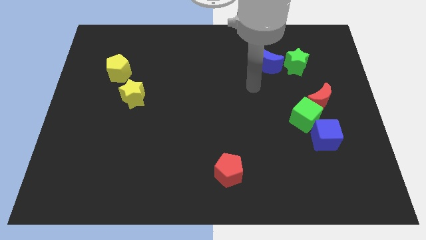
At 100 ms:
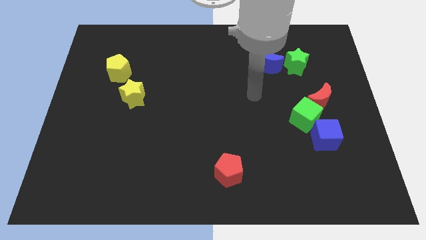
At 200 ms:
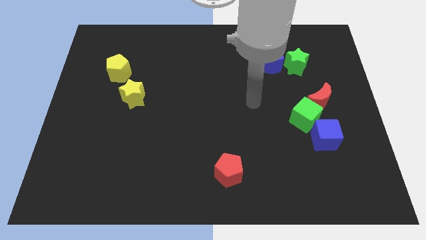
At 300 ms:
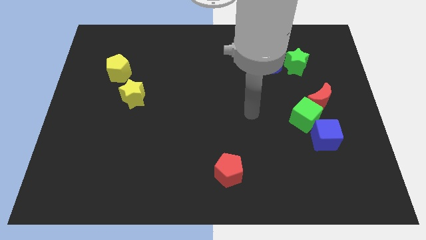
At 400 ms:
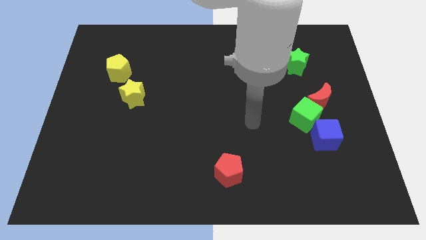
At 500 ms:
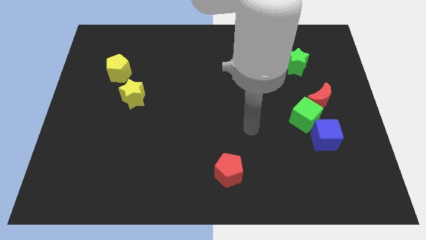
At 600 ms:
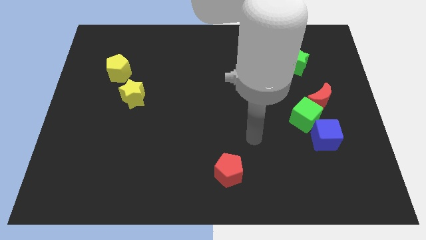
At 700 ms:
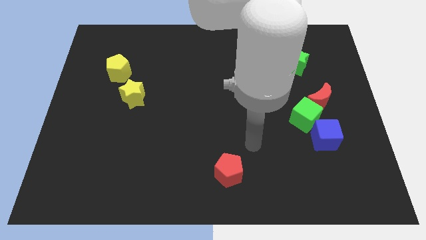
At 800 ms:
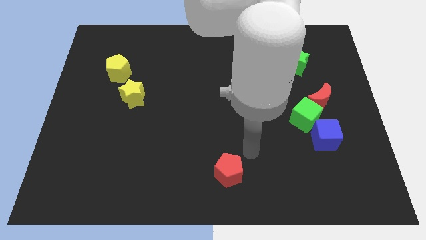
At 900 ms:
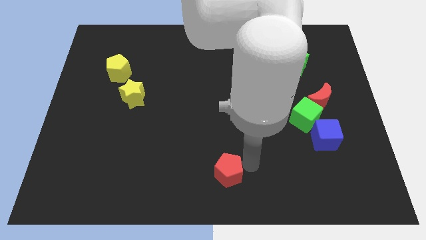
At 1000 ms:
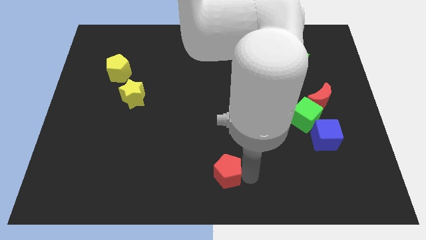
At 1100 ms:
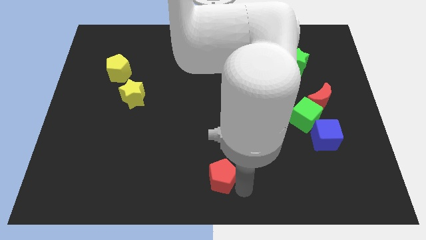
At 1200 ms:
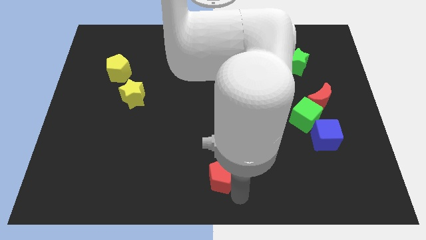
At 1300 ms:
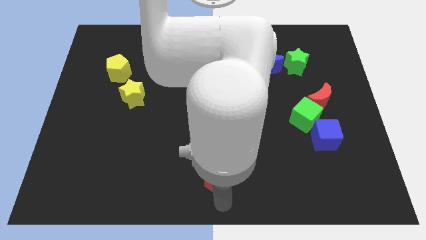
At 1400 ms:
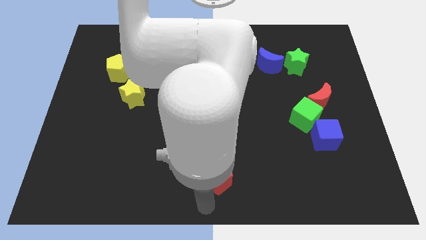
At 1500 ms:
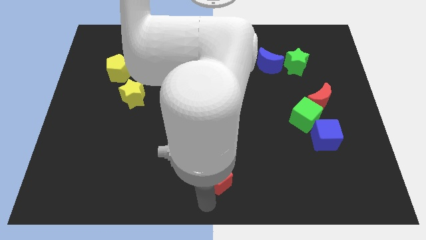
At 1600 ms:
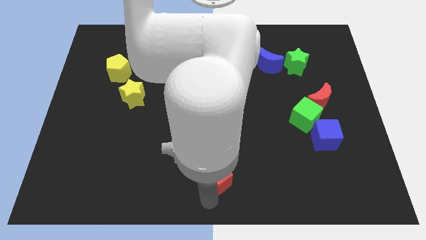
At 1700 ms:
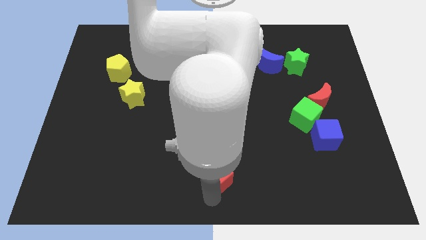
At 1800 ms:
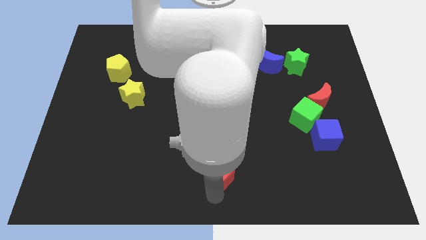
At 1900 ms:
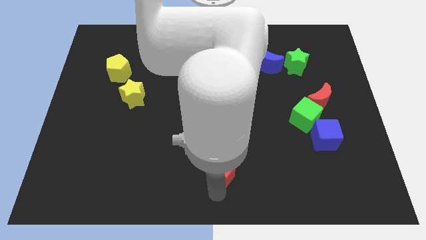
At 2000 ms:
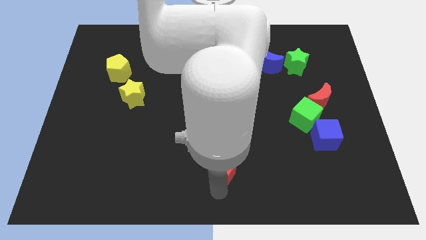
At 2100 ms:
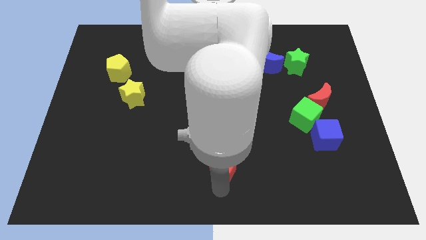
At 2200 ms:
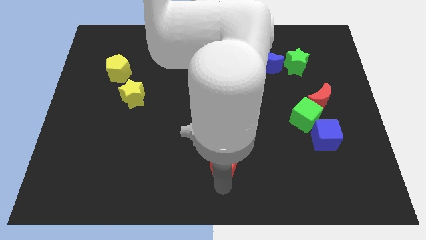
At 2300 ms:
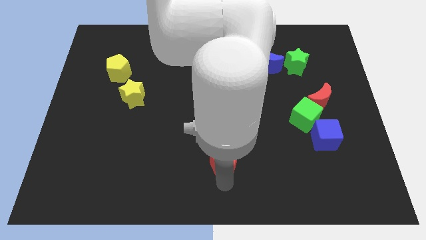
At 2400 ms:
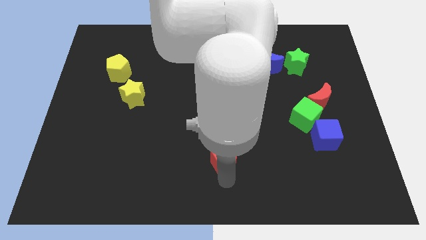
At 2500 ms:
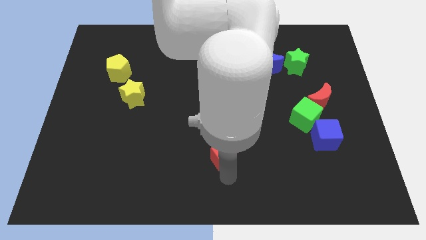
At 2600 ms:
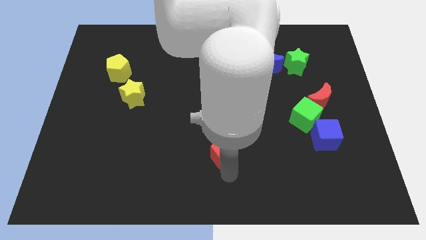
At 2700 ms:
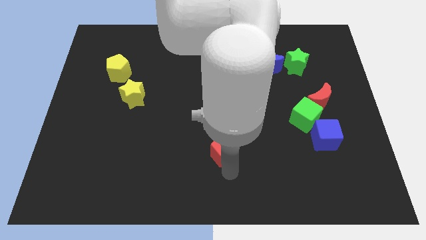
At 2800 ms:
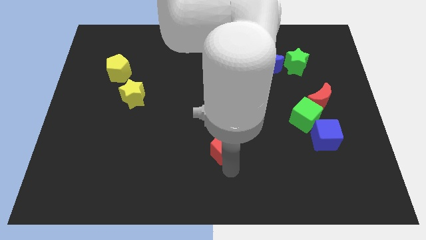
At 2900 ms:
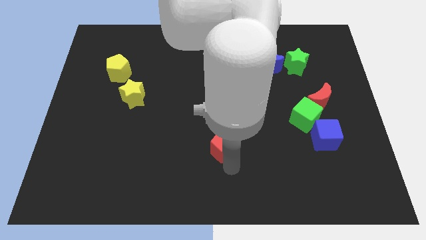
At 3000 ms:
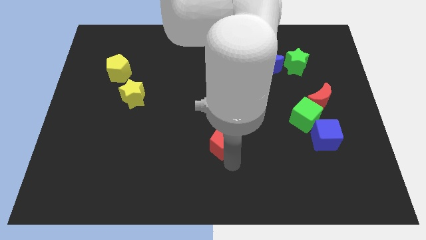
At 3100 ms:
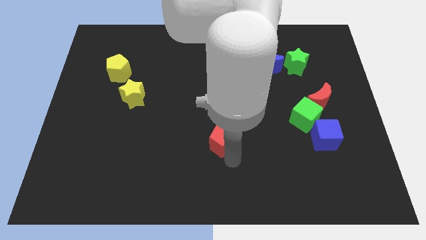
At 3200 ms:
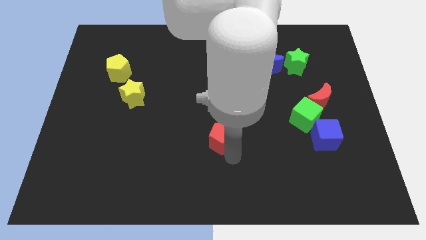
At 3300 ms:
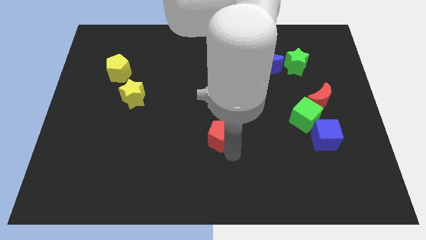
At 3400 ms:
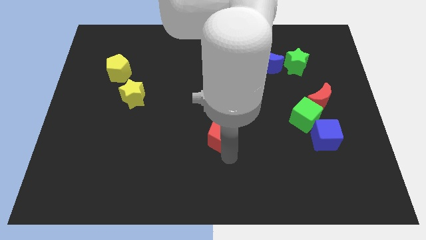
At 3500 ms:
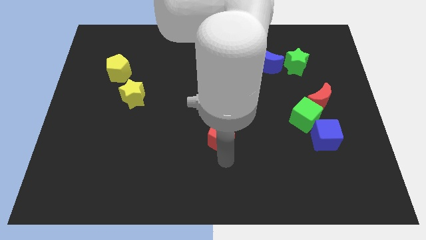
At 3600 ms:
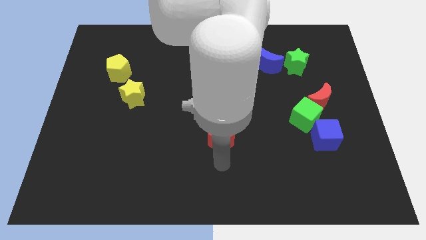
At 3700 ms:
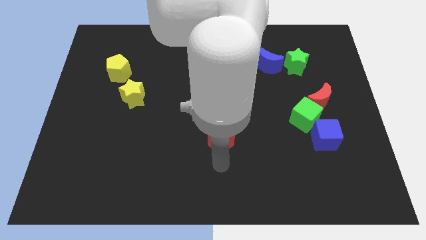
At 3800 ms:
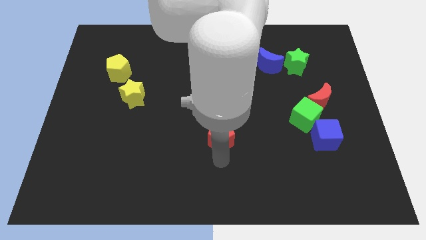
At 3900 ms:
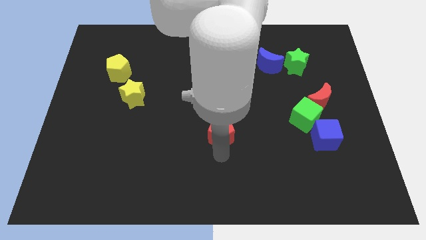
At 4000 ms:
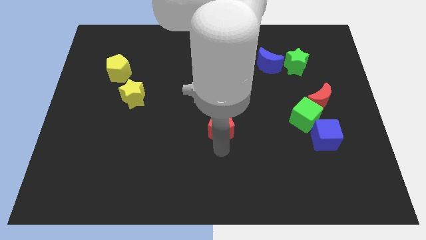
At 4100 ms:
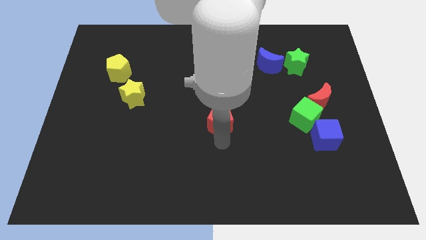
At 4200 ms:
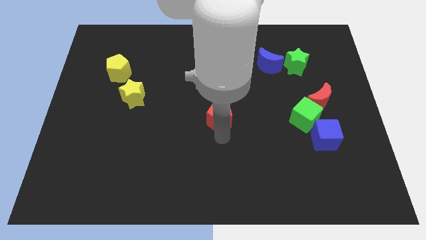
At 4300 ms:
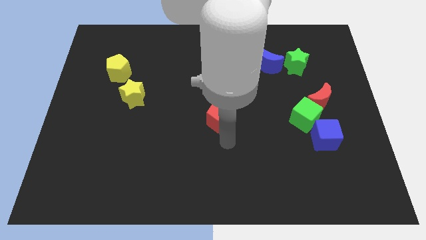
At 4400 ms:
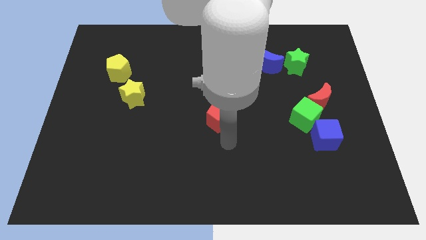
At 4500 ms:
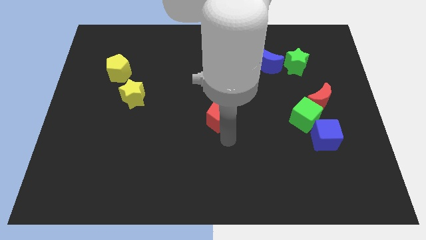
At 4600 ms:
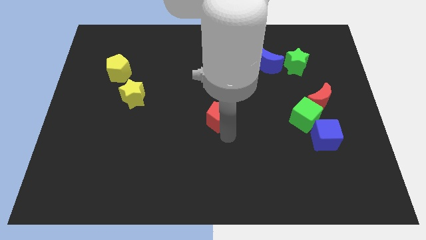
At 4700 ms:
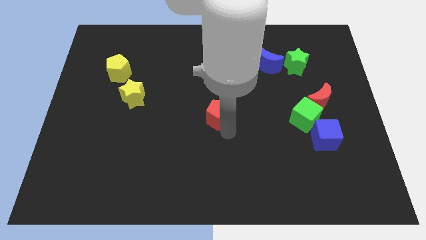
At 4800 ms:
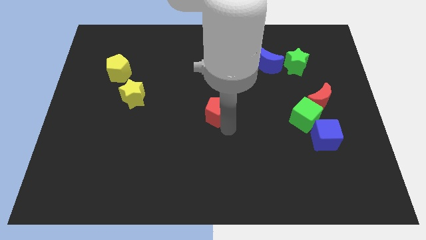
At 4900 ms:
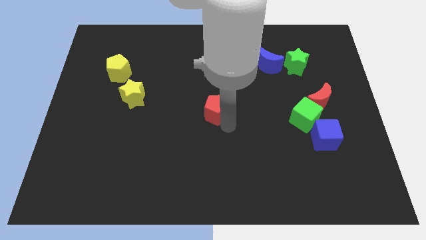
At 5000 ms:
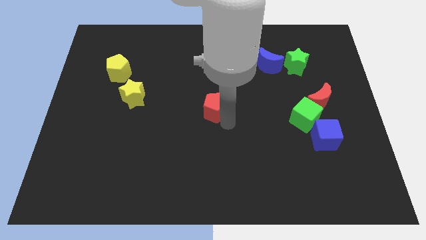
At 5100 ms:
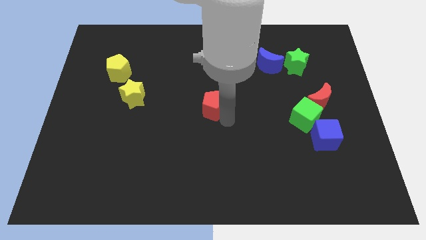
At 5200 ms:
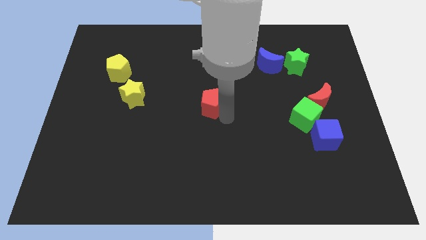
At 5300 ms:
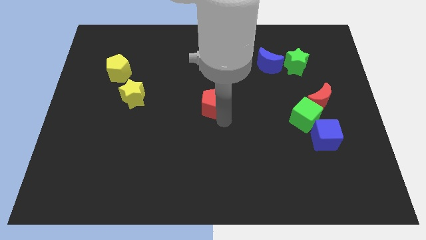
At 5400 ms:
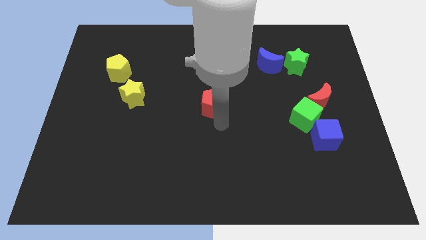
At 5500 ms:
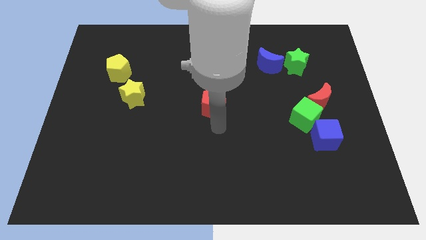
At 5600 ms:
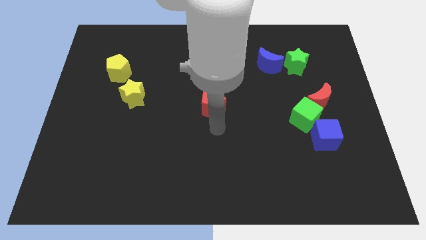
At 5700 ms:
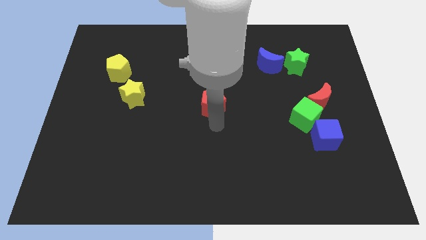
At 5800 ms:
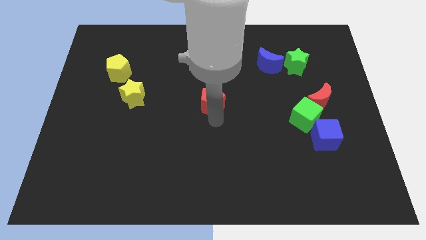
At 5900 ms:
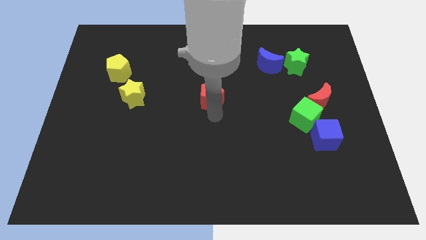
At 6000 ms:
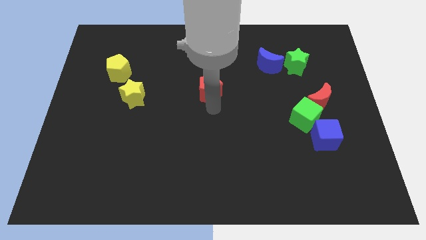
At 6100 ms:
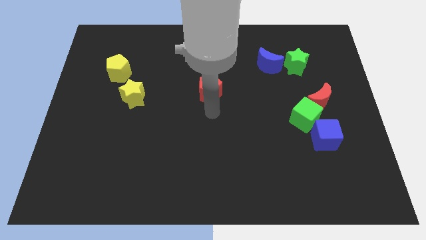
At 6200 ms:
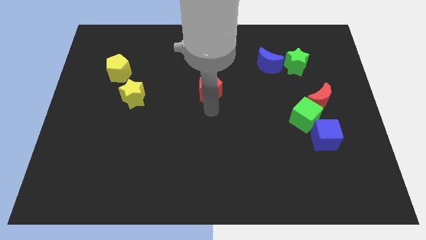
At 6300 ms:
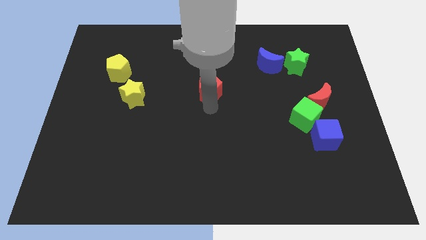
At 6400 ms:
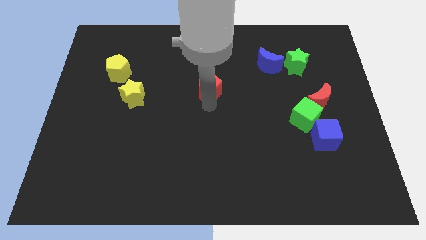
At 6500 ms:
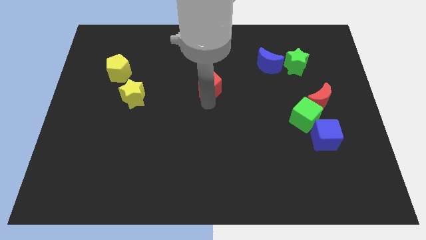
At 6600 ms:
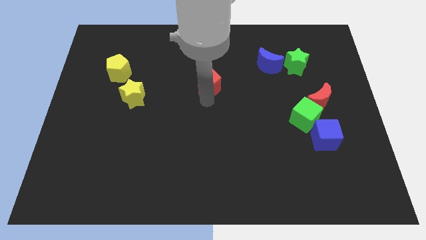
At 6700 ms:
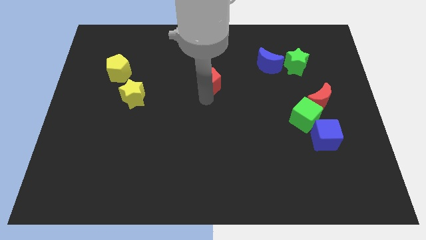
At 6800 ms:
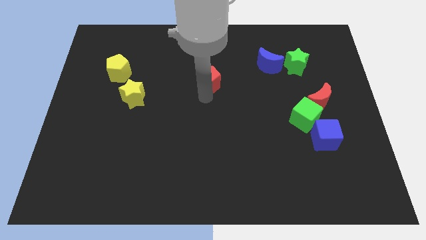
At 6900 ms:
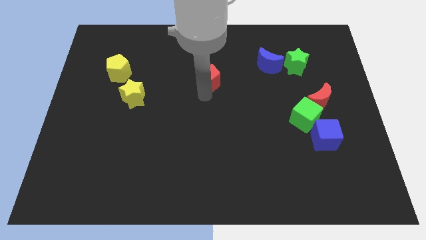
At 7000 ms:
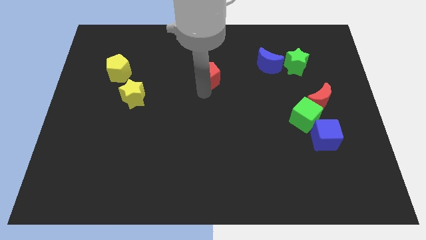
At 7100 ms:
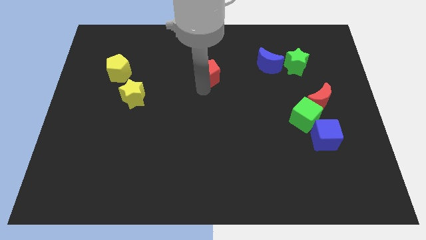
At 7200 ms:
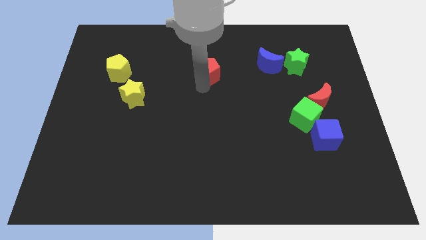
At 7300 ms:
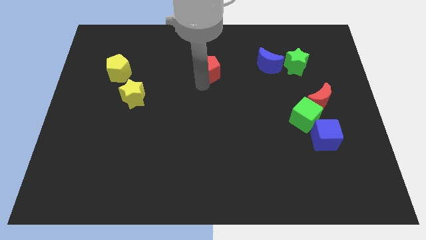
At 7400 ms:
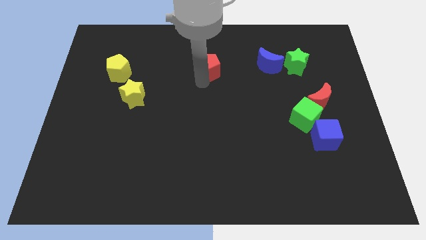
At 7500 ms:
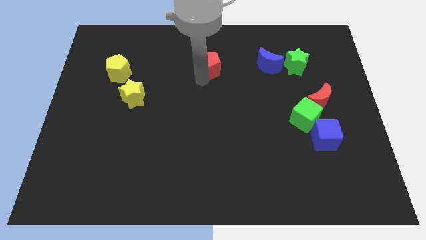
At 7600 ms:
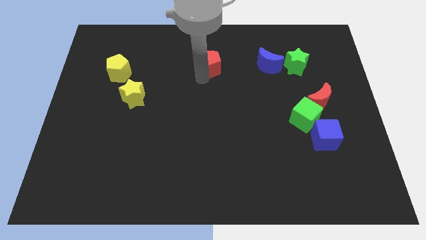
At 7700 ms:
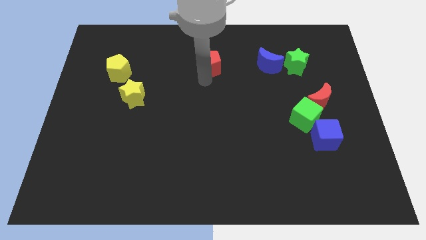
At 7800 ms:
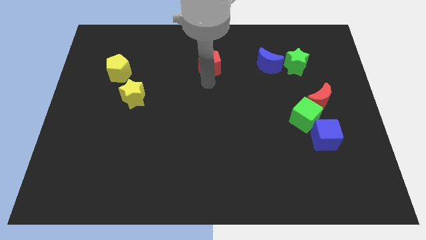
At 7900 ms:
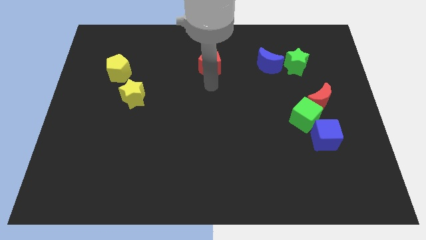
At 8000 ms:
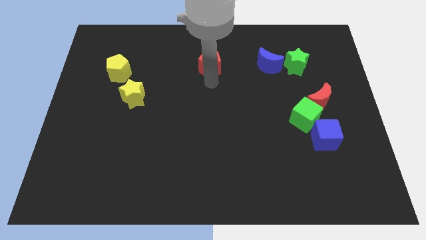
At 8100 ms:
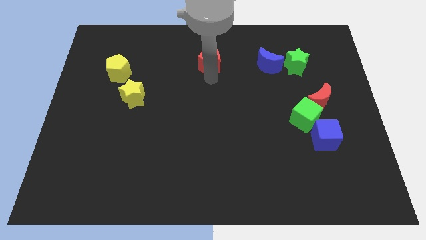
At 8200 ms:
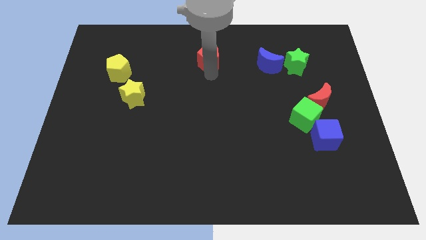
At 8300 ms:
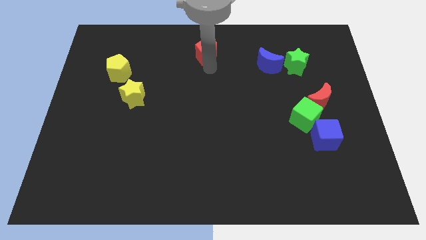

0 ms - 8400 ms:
slide the red pentagon to the towards your base
